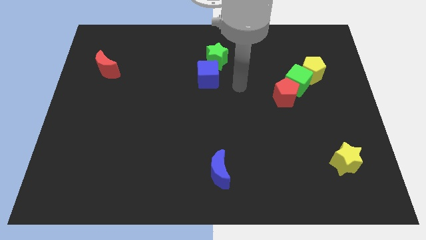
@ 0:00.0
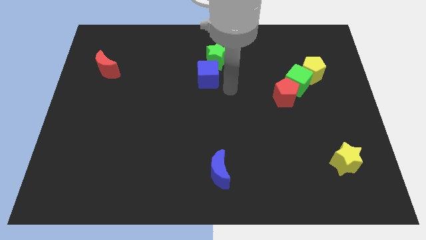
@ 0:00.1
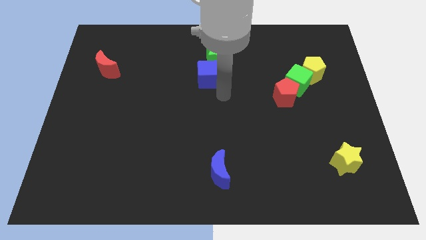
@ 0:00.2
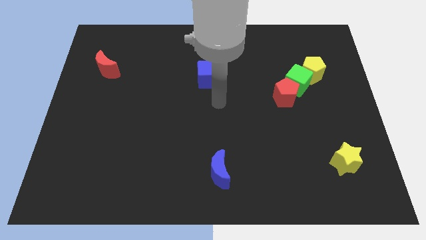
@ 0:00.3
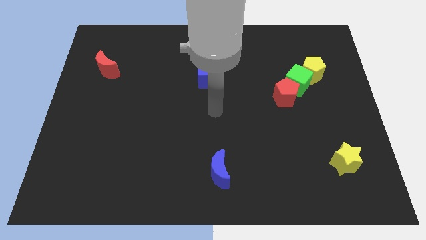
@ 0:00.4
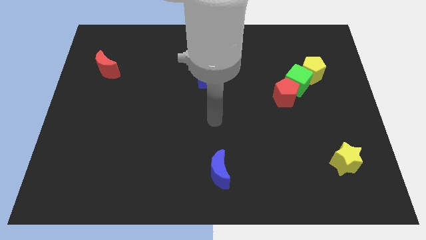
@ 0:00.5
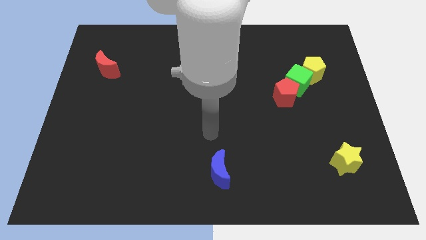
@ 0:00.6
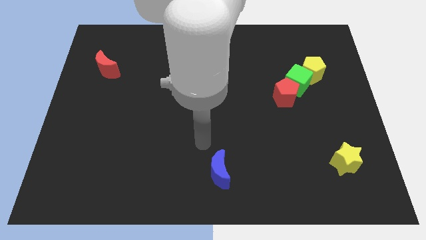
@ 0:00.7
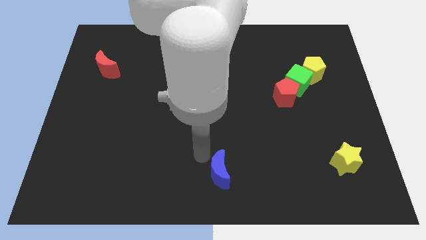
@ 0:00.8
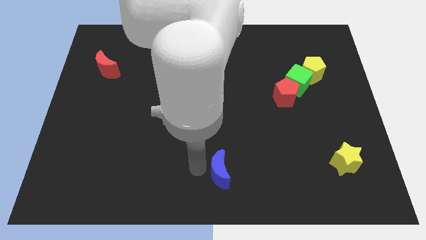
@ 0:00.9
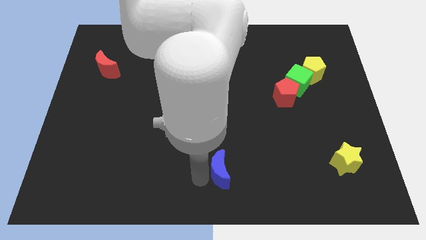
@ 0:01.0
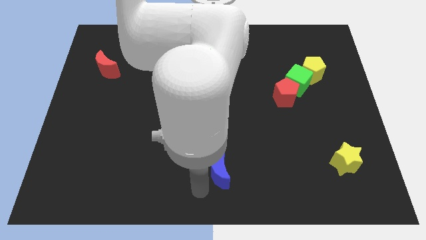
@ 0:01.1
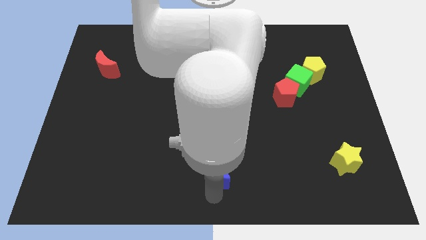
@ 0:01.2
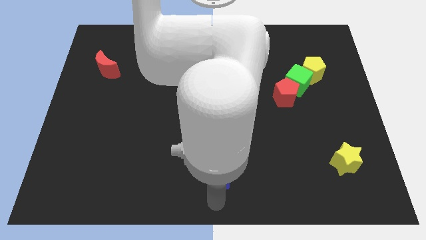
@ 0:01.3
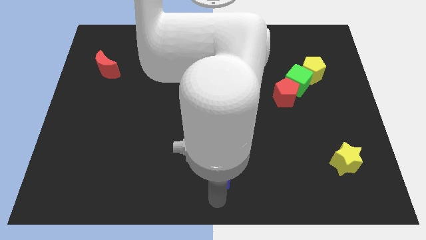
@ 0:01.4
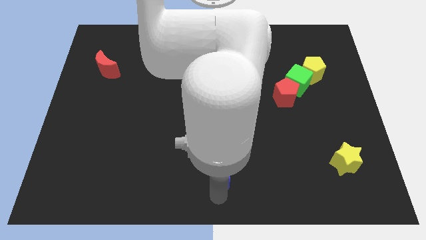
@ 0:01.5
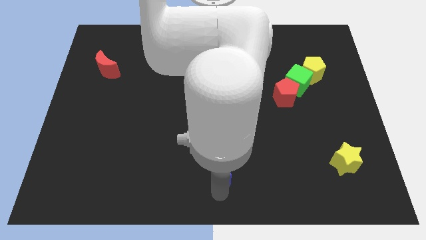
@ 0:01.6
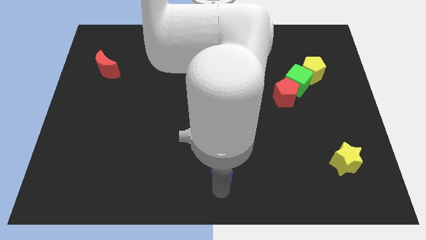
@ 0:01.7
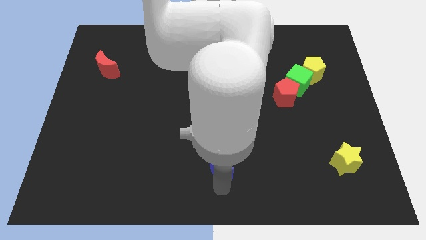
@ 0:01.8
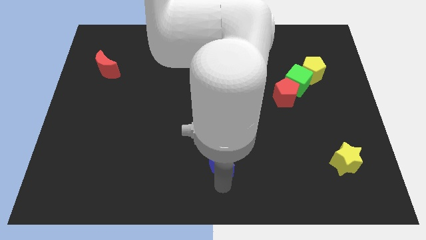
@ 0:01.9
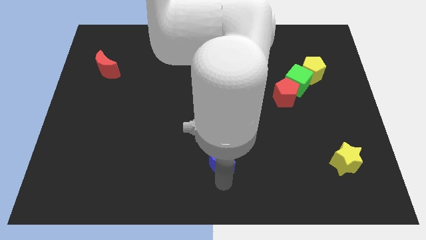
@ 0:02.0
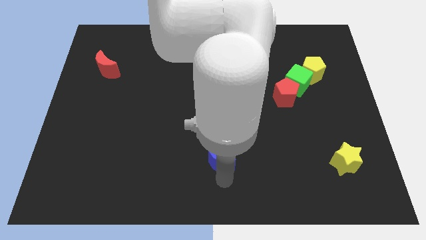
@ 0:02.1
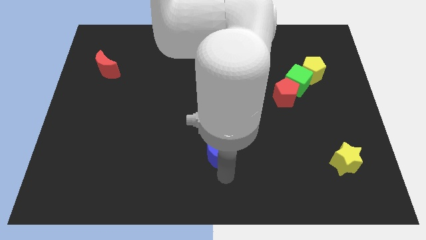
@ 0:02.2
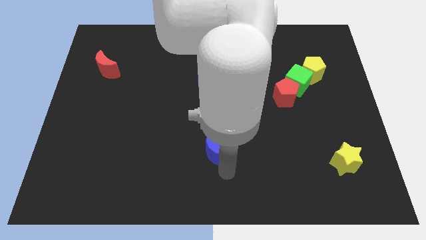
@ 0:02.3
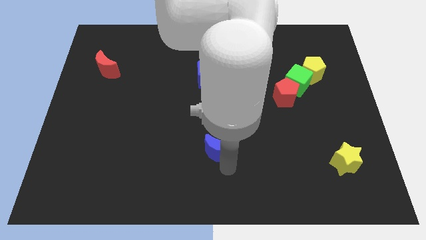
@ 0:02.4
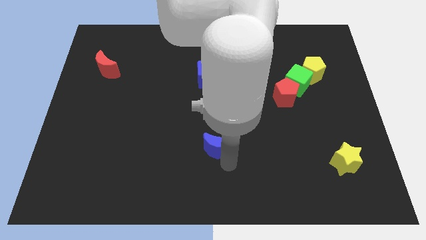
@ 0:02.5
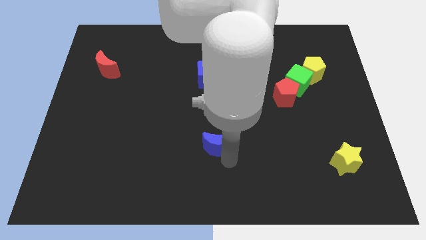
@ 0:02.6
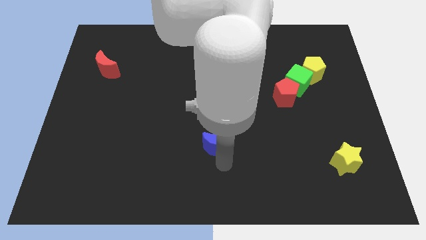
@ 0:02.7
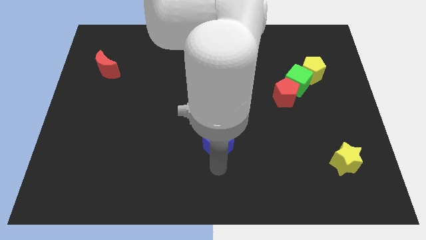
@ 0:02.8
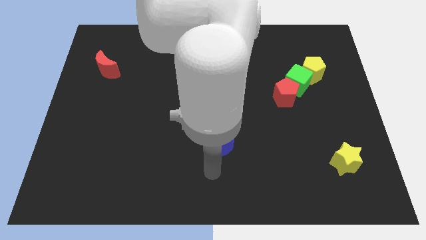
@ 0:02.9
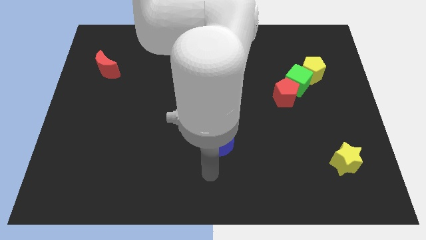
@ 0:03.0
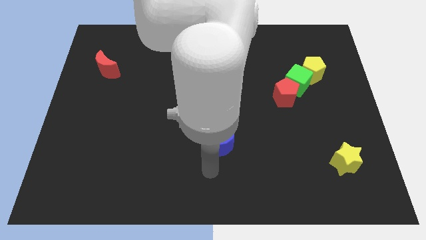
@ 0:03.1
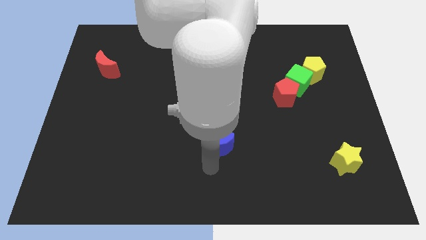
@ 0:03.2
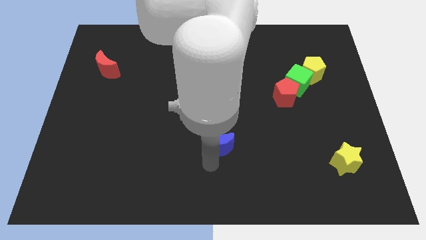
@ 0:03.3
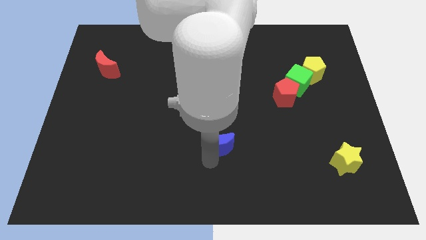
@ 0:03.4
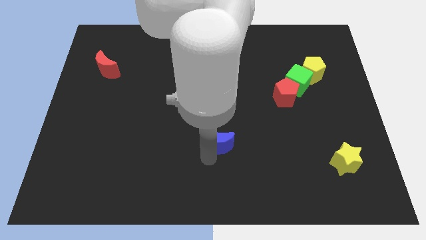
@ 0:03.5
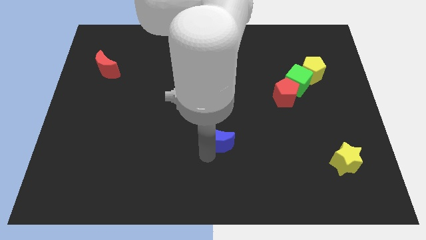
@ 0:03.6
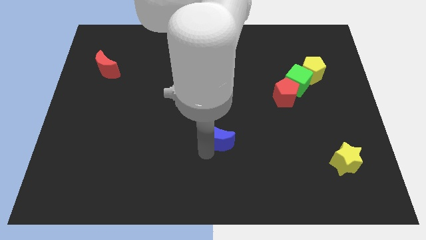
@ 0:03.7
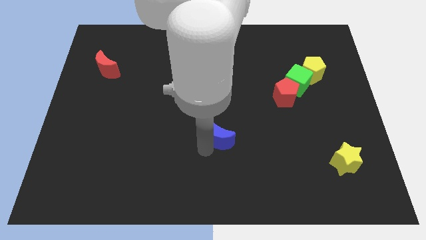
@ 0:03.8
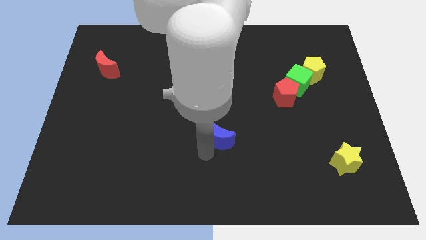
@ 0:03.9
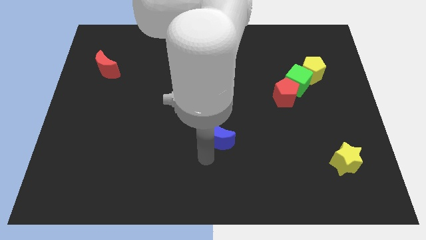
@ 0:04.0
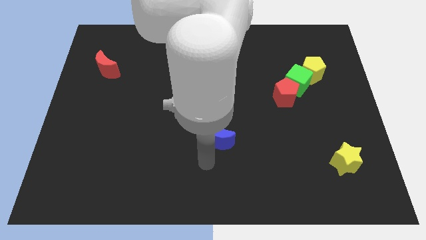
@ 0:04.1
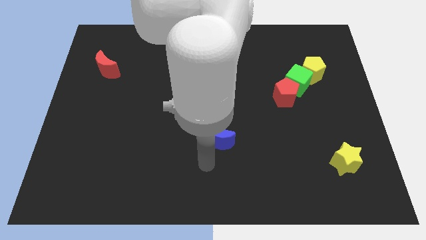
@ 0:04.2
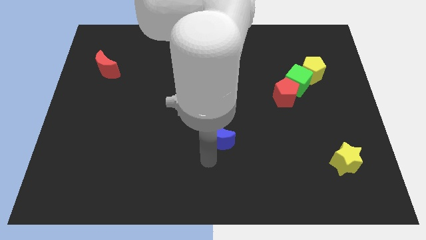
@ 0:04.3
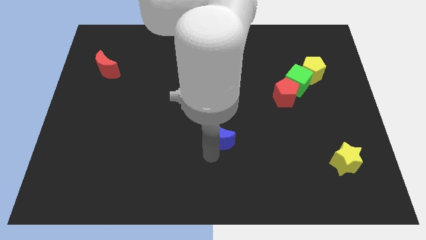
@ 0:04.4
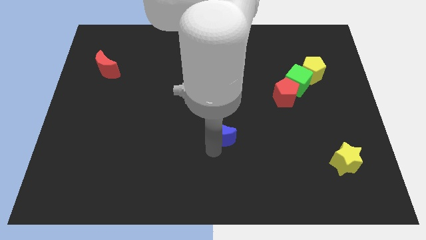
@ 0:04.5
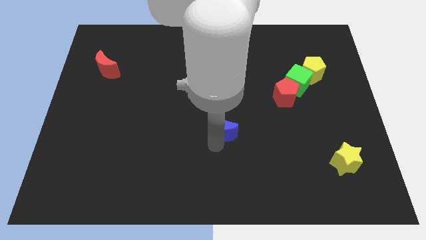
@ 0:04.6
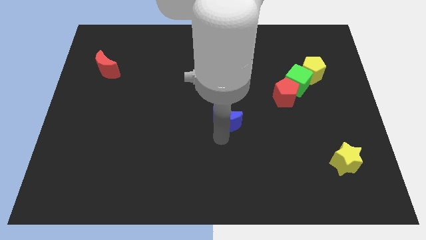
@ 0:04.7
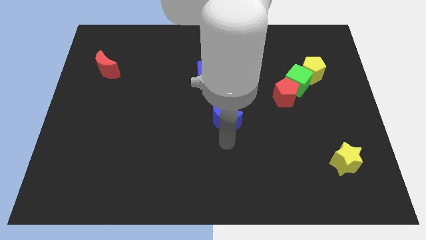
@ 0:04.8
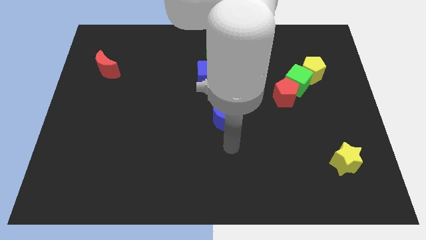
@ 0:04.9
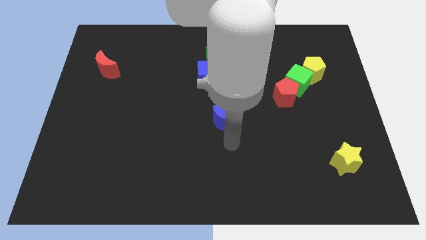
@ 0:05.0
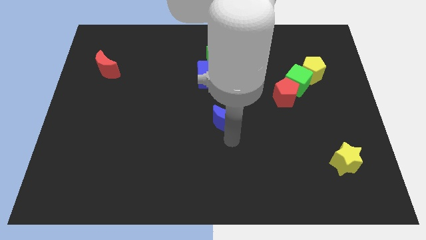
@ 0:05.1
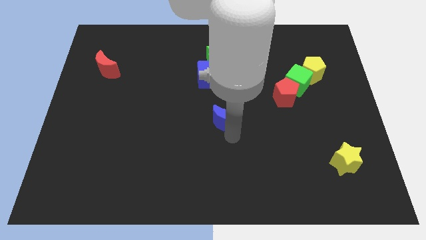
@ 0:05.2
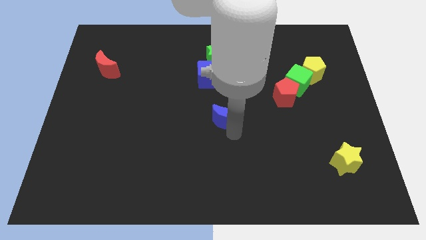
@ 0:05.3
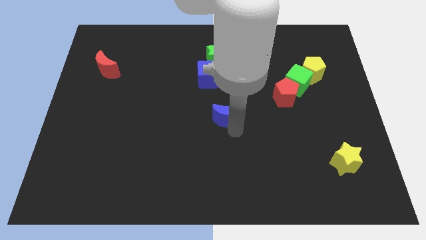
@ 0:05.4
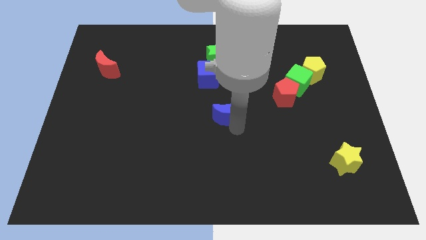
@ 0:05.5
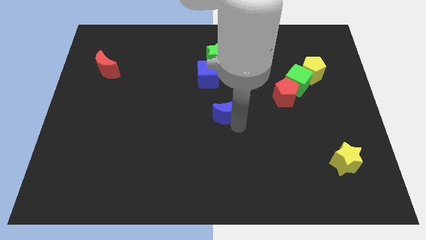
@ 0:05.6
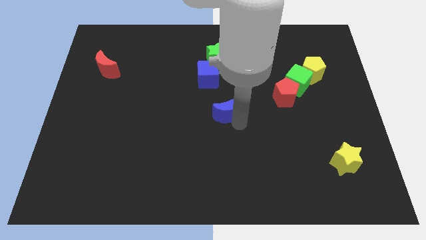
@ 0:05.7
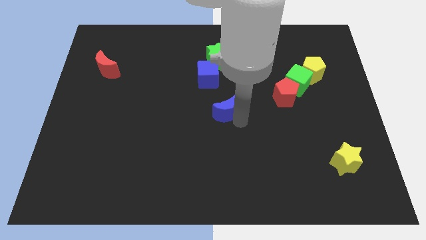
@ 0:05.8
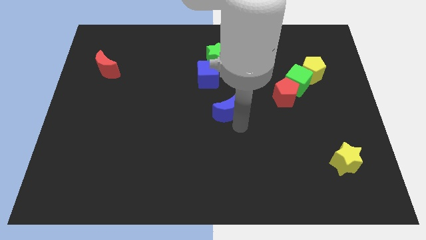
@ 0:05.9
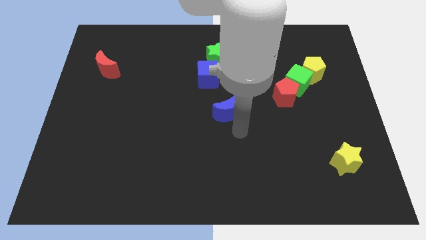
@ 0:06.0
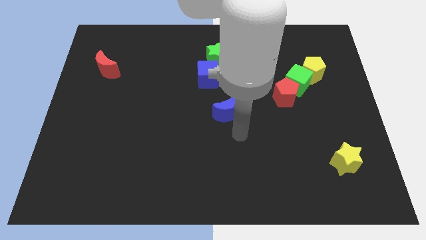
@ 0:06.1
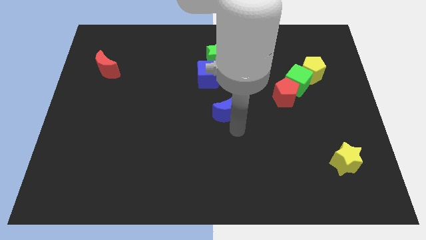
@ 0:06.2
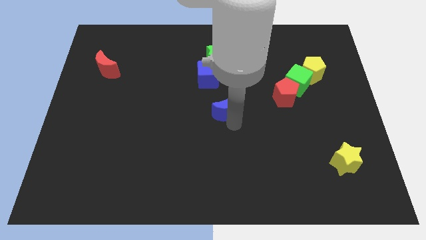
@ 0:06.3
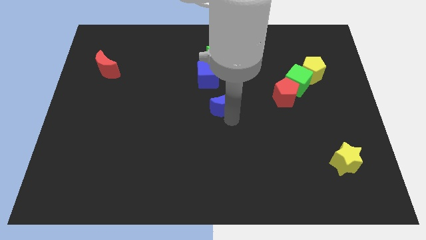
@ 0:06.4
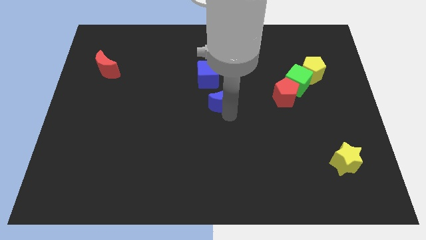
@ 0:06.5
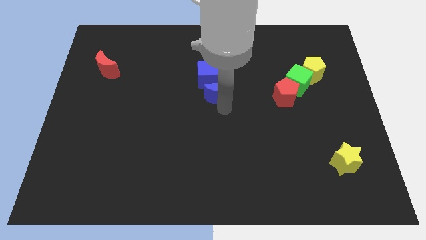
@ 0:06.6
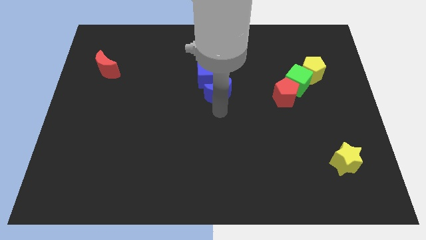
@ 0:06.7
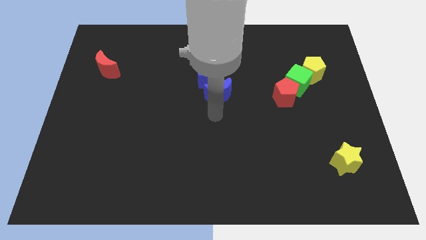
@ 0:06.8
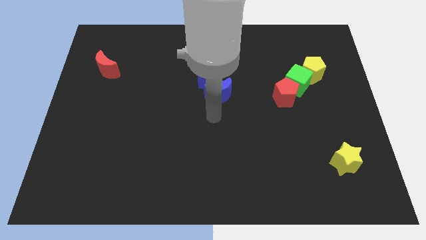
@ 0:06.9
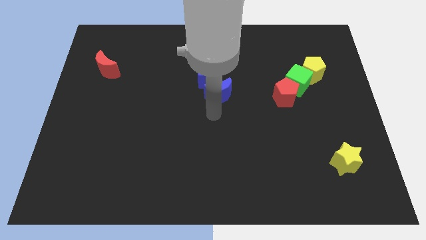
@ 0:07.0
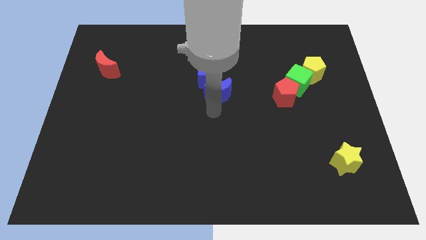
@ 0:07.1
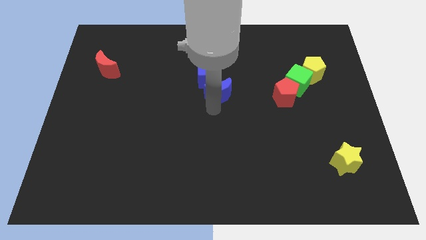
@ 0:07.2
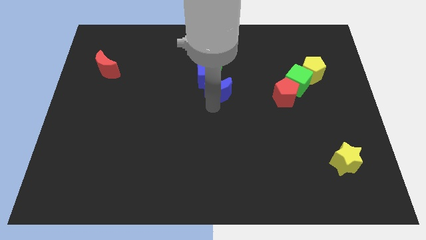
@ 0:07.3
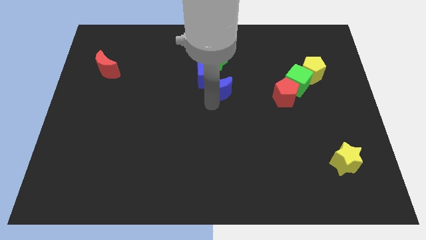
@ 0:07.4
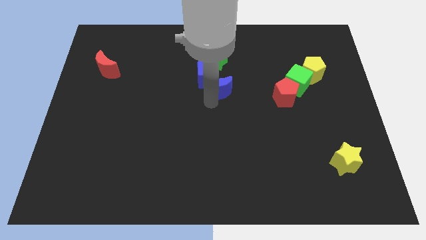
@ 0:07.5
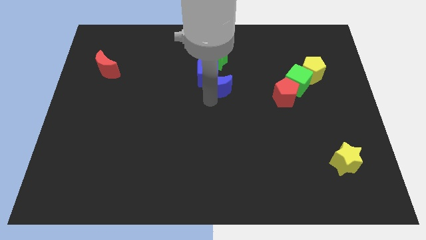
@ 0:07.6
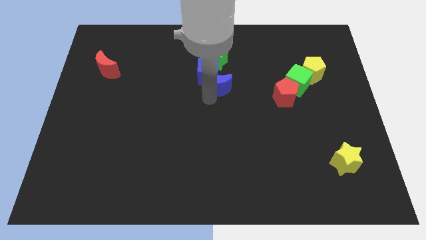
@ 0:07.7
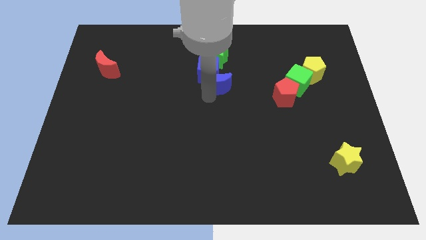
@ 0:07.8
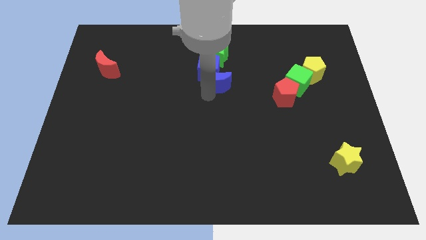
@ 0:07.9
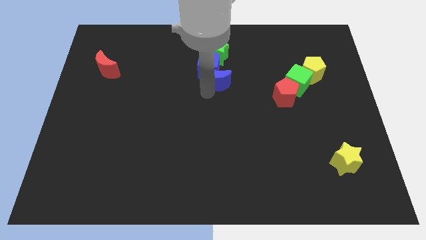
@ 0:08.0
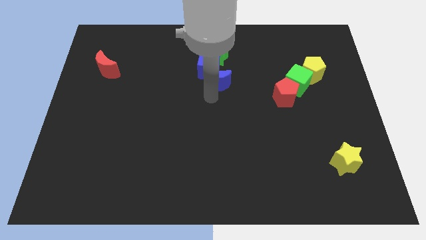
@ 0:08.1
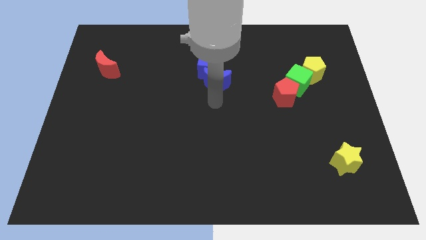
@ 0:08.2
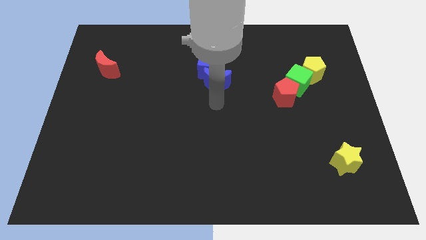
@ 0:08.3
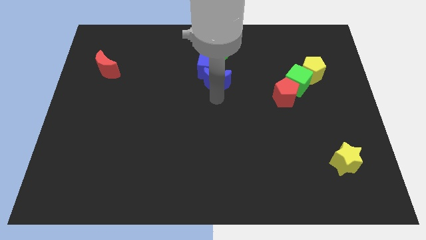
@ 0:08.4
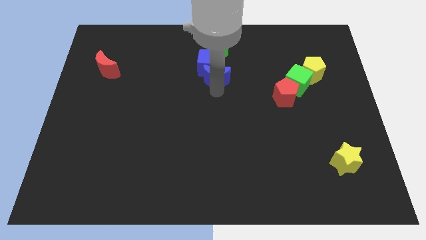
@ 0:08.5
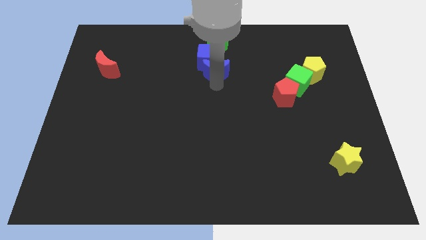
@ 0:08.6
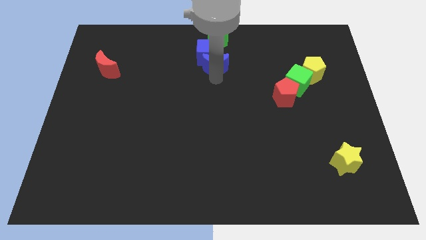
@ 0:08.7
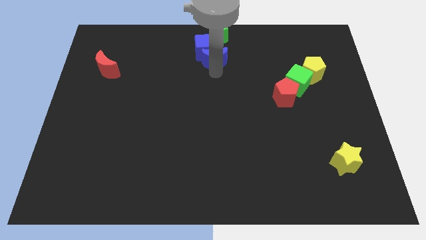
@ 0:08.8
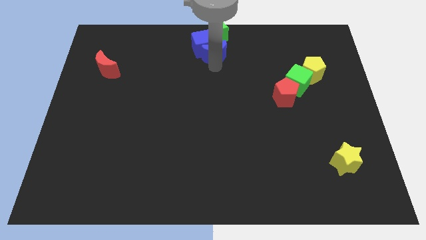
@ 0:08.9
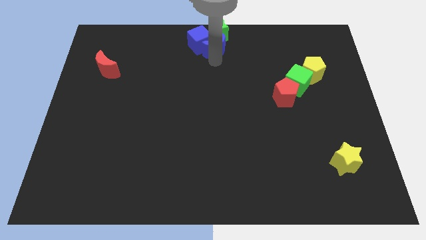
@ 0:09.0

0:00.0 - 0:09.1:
push the blue moon close to the green star
